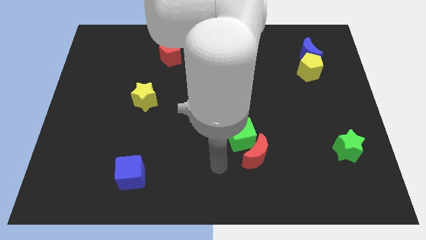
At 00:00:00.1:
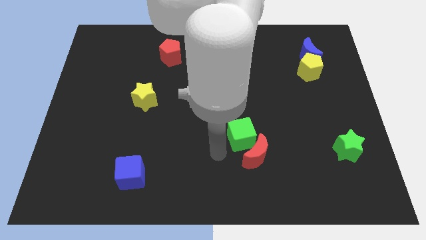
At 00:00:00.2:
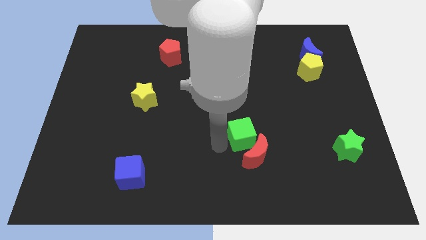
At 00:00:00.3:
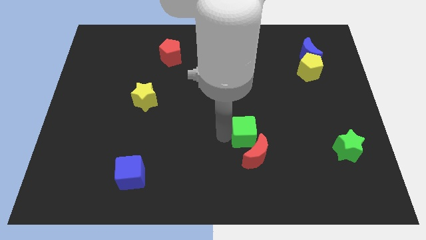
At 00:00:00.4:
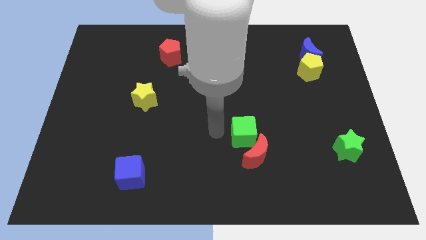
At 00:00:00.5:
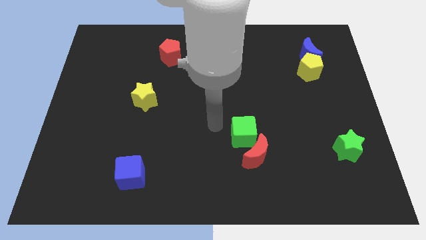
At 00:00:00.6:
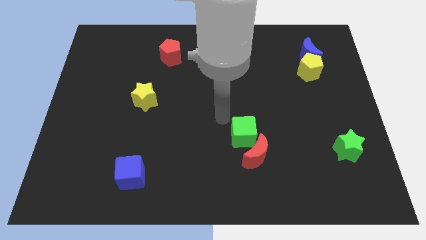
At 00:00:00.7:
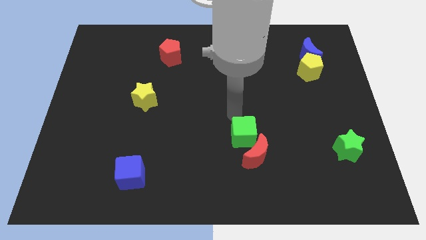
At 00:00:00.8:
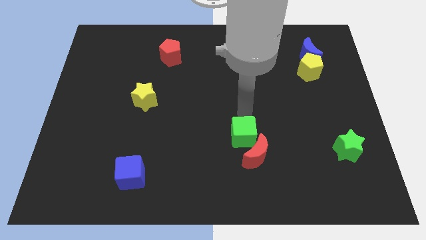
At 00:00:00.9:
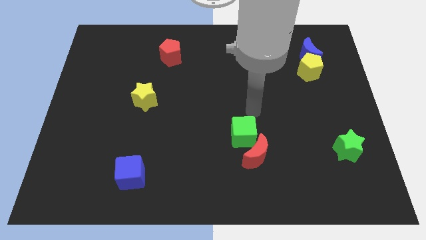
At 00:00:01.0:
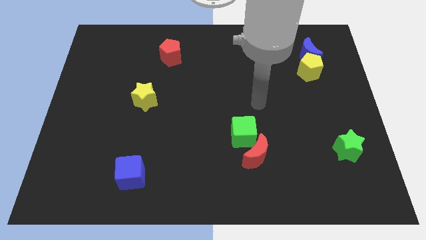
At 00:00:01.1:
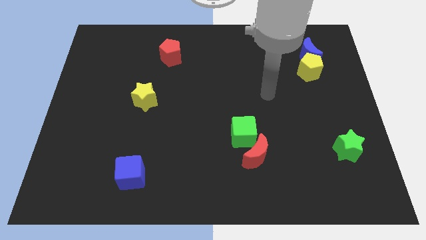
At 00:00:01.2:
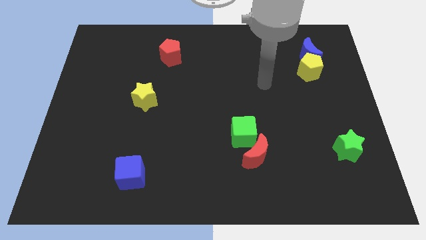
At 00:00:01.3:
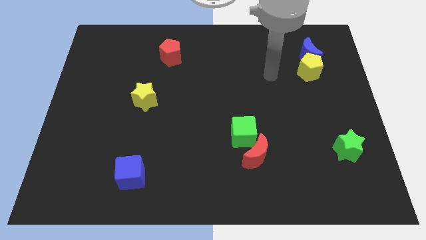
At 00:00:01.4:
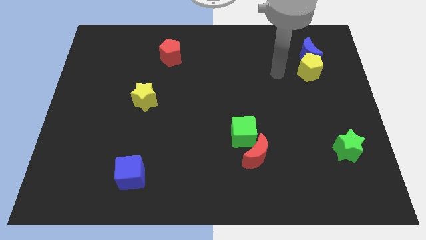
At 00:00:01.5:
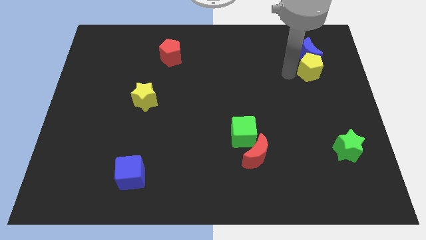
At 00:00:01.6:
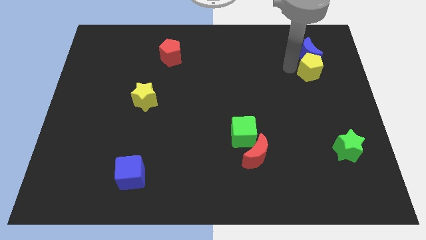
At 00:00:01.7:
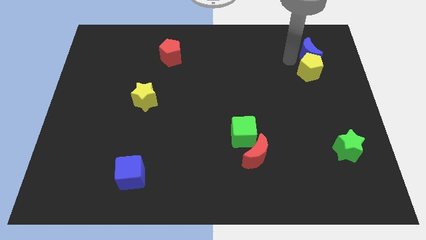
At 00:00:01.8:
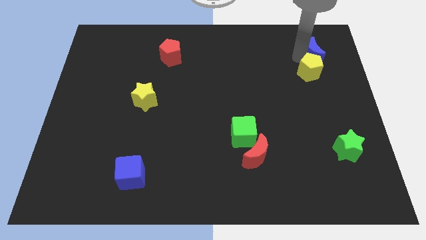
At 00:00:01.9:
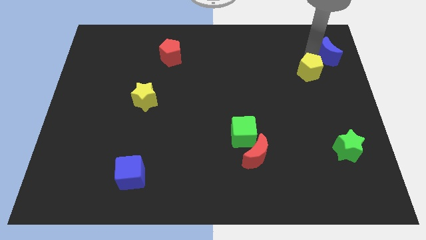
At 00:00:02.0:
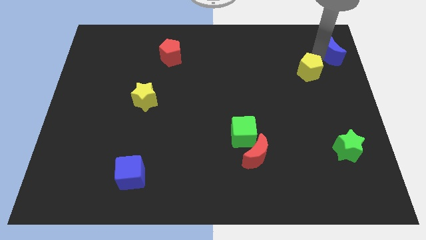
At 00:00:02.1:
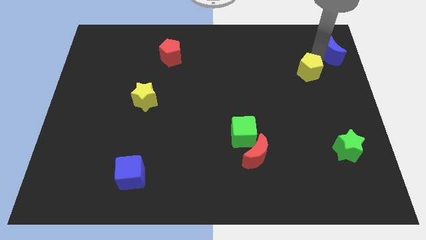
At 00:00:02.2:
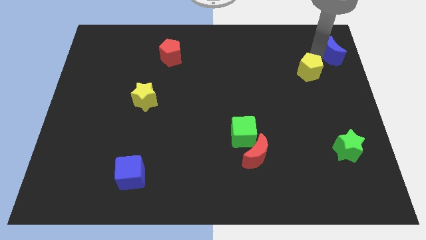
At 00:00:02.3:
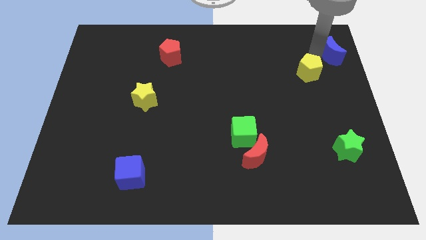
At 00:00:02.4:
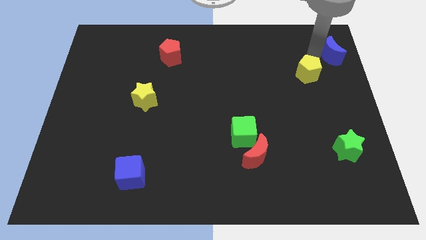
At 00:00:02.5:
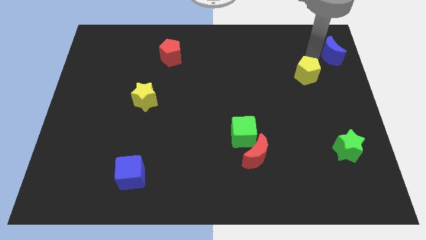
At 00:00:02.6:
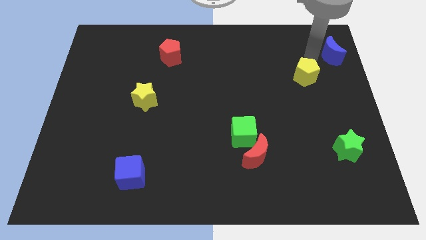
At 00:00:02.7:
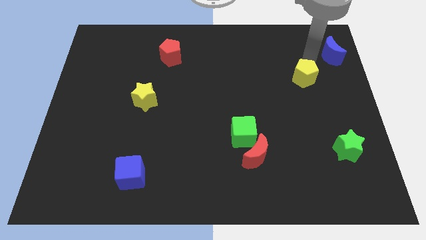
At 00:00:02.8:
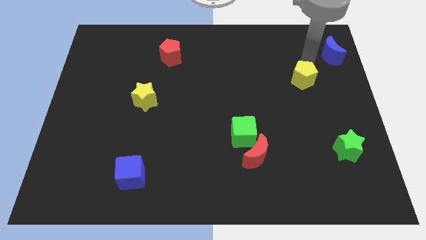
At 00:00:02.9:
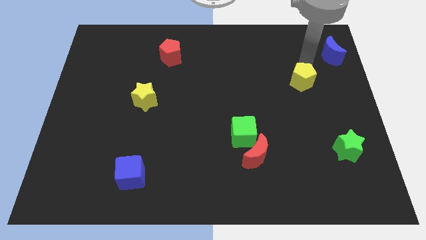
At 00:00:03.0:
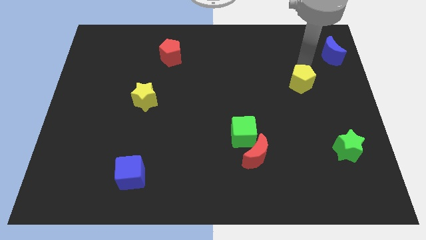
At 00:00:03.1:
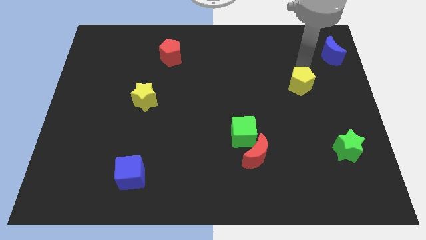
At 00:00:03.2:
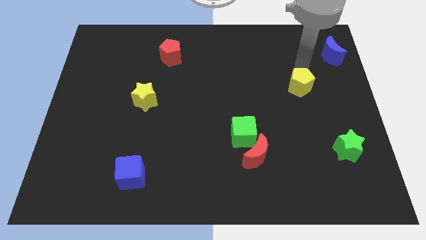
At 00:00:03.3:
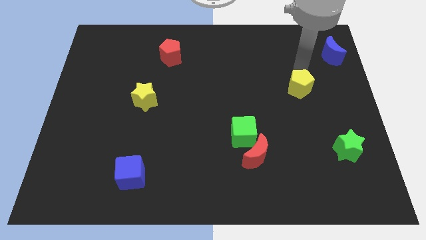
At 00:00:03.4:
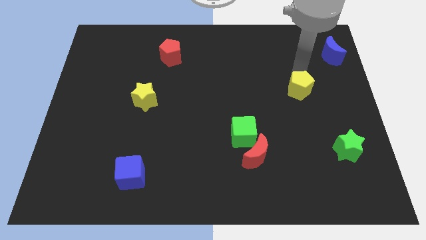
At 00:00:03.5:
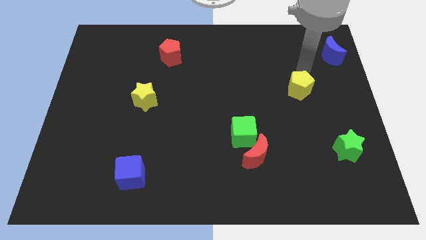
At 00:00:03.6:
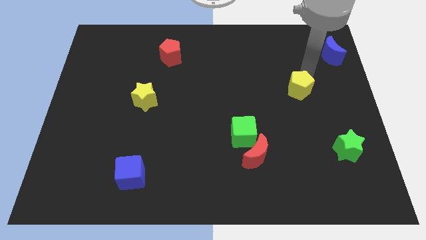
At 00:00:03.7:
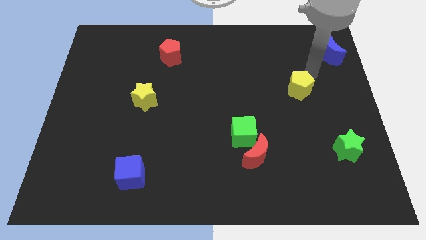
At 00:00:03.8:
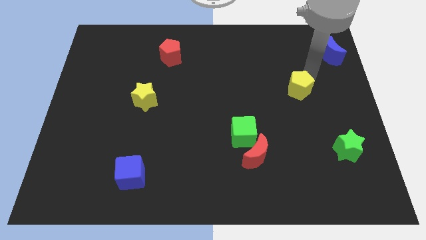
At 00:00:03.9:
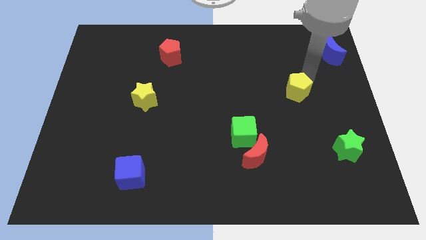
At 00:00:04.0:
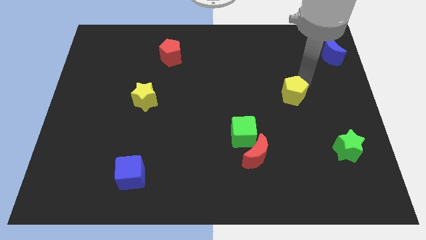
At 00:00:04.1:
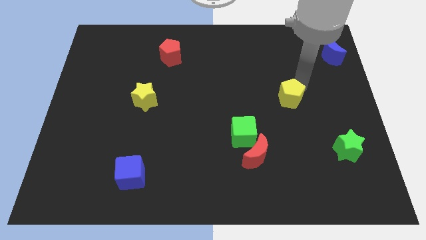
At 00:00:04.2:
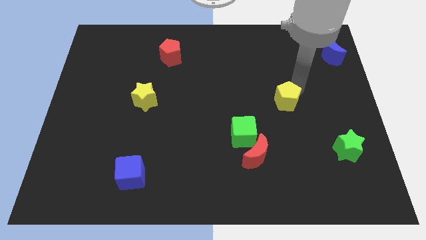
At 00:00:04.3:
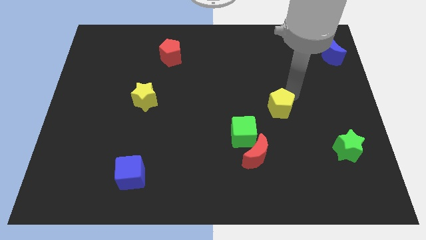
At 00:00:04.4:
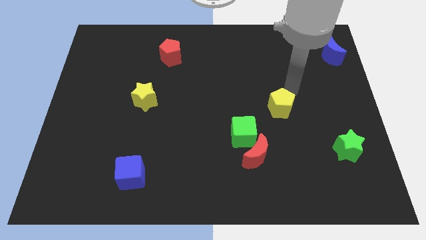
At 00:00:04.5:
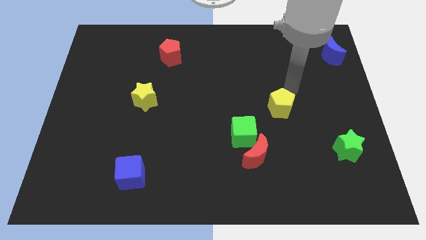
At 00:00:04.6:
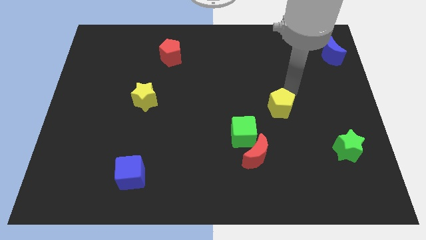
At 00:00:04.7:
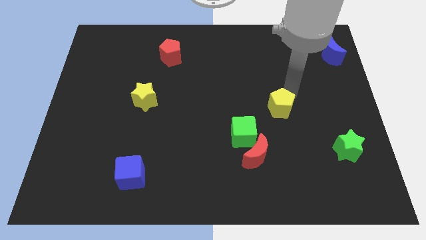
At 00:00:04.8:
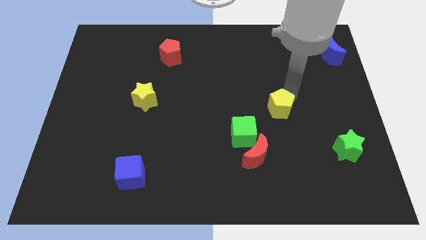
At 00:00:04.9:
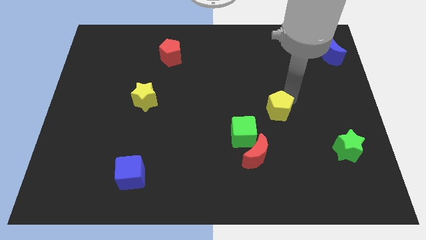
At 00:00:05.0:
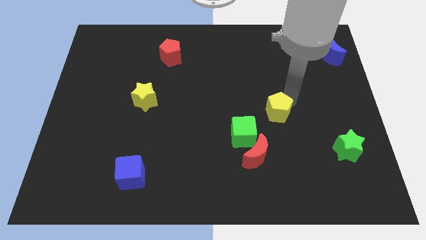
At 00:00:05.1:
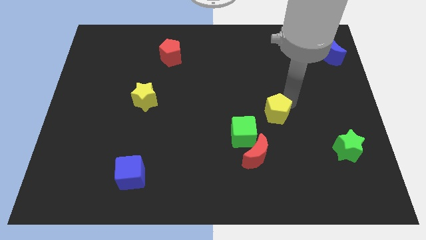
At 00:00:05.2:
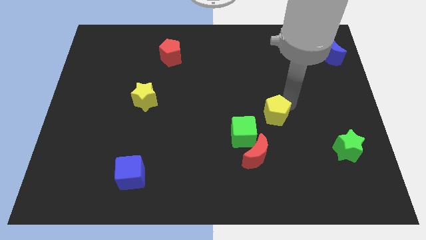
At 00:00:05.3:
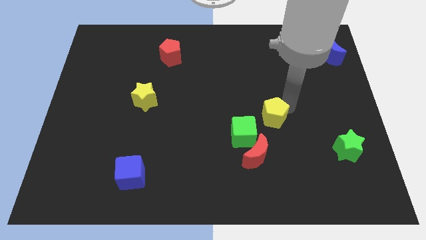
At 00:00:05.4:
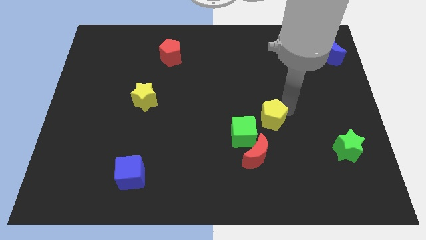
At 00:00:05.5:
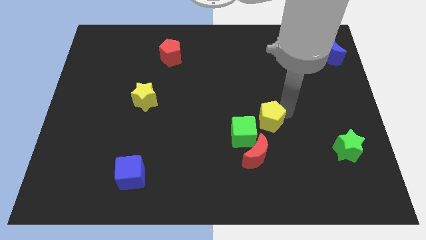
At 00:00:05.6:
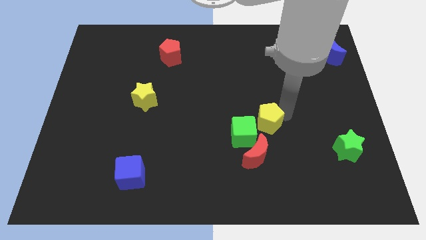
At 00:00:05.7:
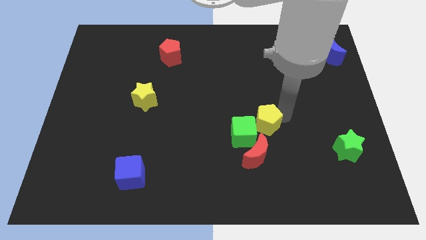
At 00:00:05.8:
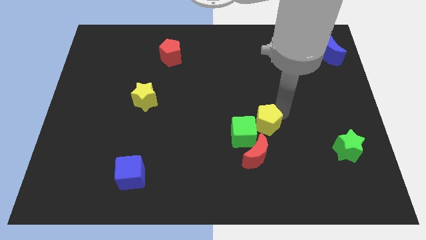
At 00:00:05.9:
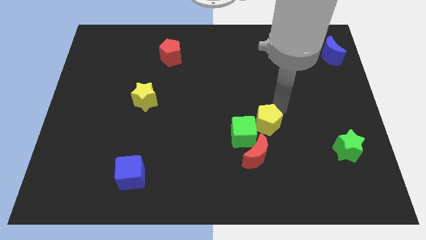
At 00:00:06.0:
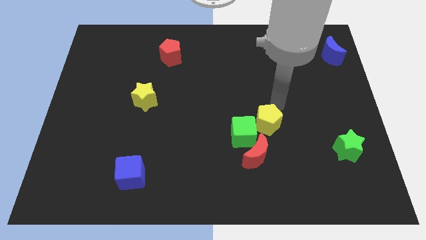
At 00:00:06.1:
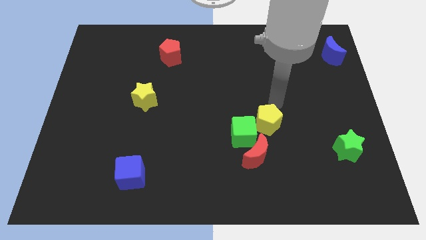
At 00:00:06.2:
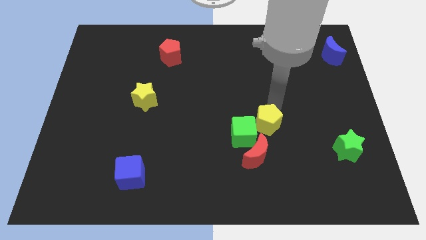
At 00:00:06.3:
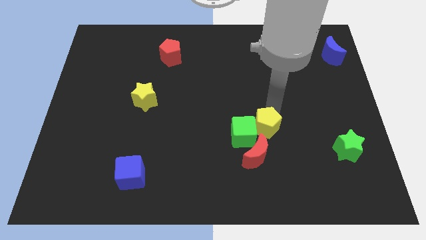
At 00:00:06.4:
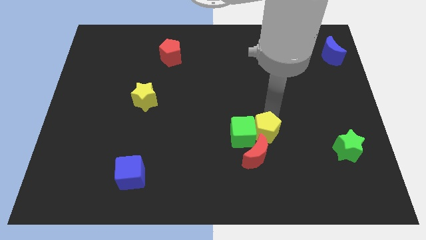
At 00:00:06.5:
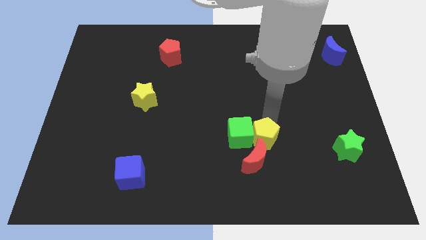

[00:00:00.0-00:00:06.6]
push the yellow pentagon close to the red moon
